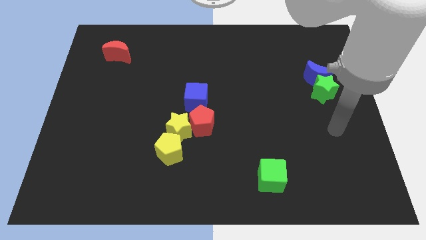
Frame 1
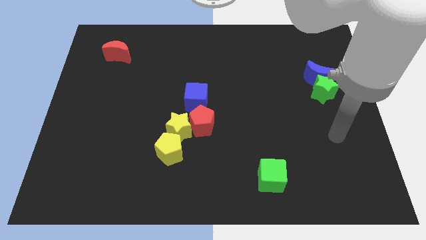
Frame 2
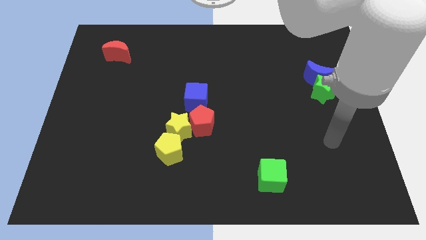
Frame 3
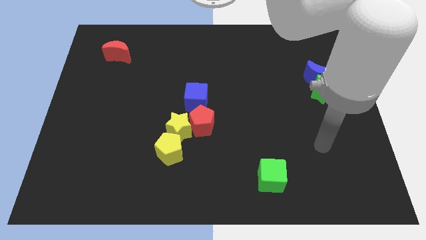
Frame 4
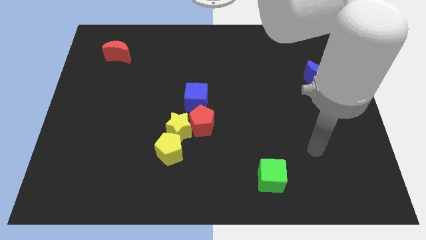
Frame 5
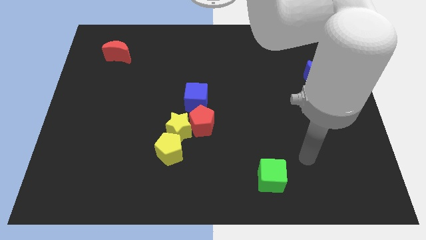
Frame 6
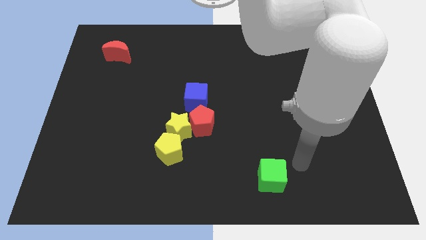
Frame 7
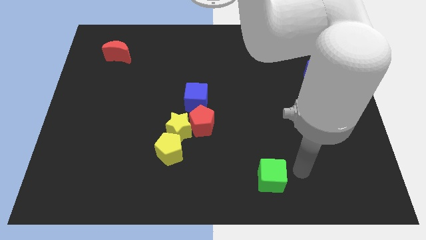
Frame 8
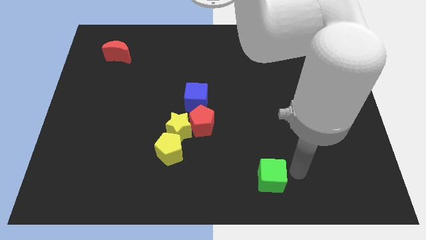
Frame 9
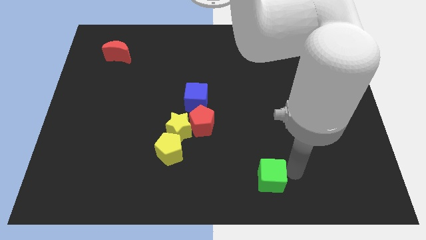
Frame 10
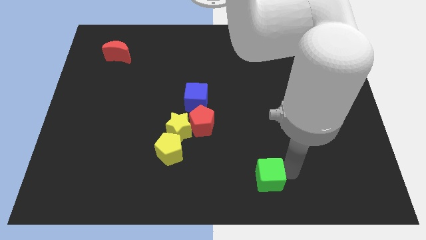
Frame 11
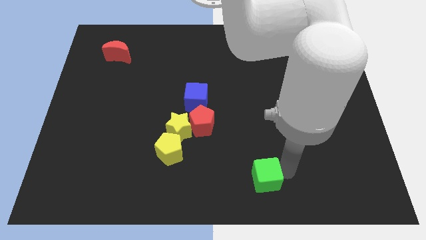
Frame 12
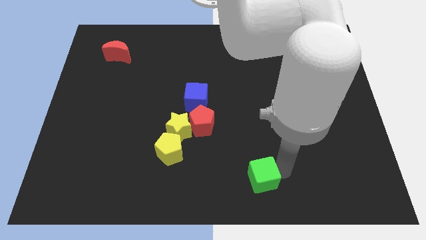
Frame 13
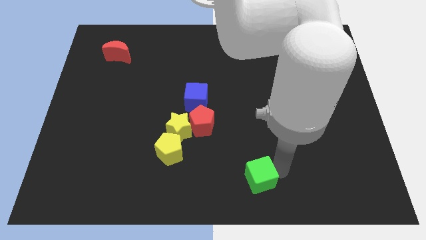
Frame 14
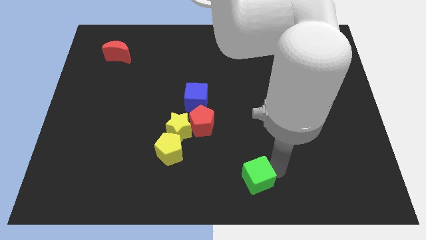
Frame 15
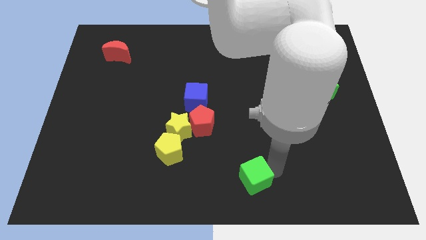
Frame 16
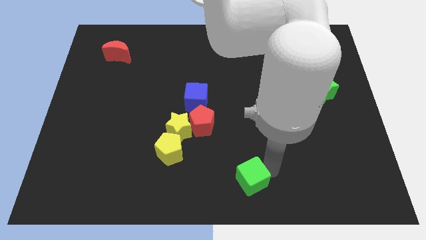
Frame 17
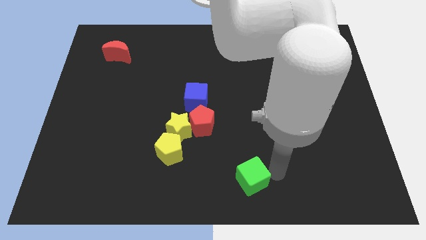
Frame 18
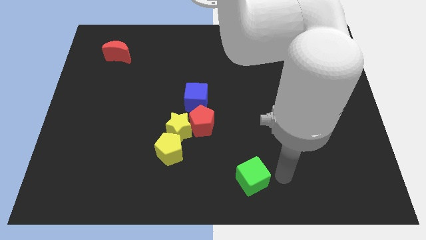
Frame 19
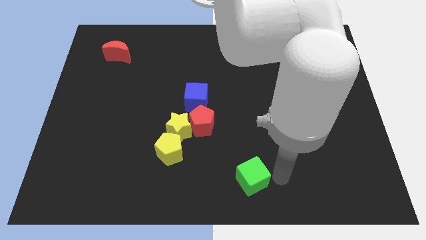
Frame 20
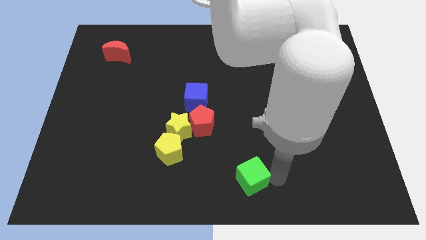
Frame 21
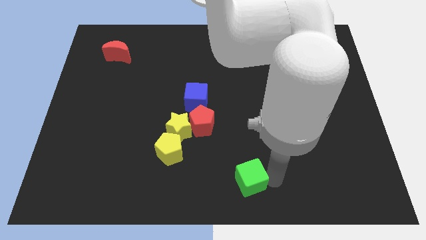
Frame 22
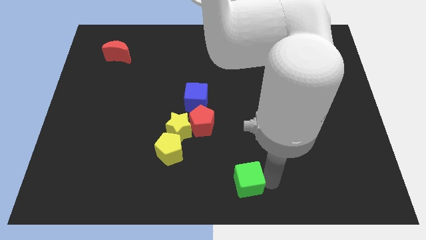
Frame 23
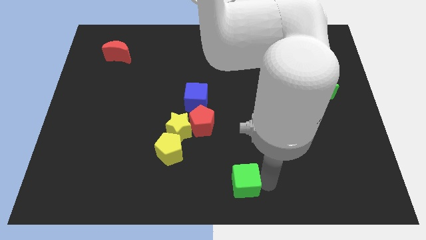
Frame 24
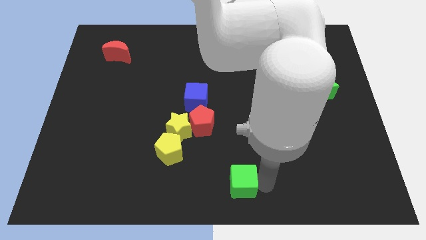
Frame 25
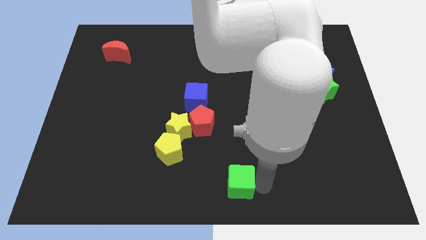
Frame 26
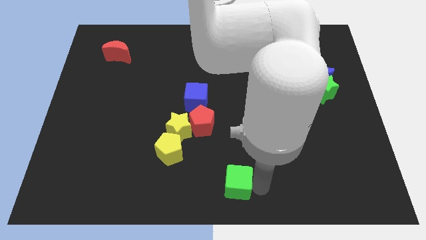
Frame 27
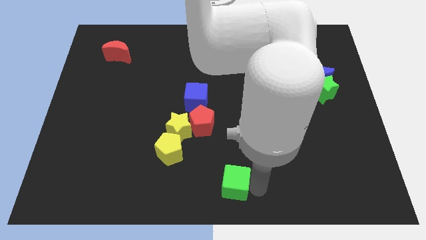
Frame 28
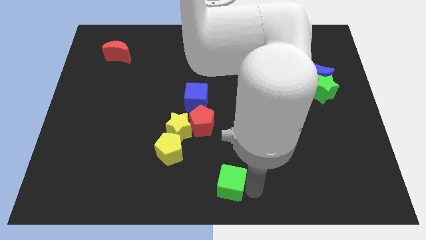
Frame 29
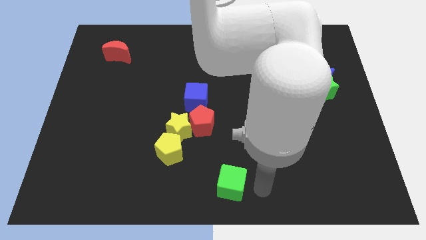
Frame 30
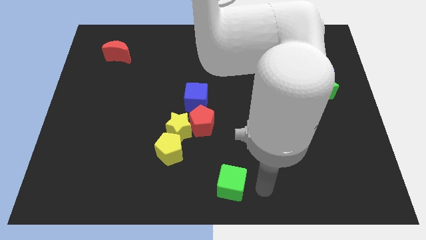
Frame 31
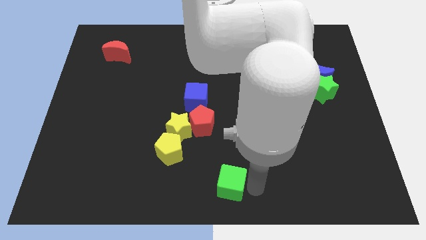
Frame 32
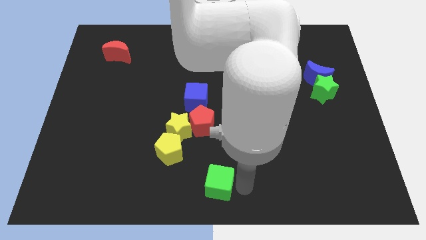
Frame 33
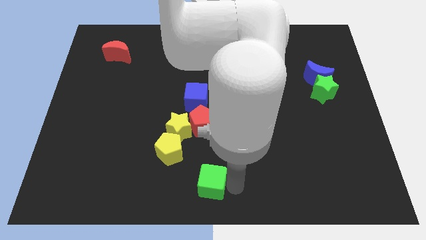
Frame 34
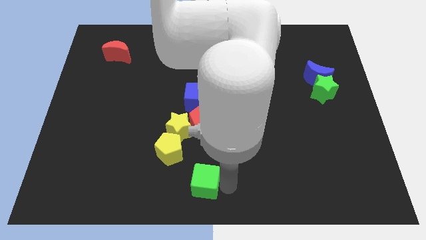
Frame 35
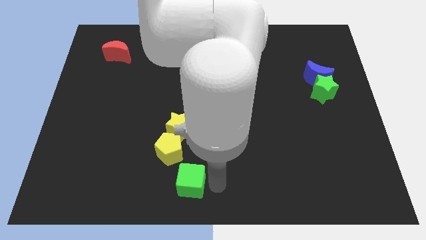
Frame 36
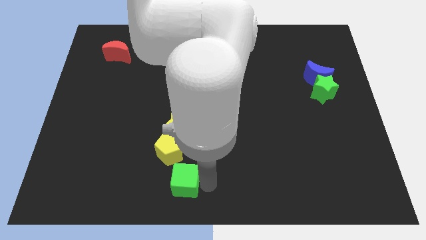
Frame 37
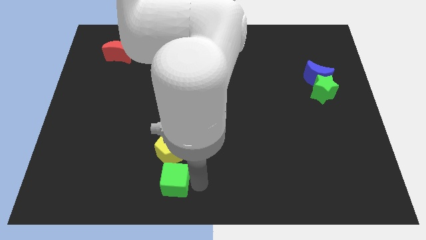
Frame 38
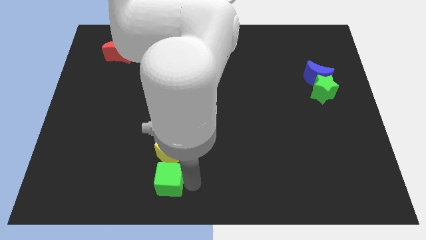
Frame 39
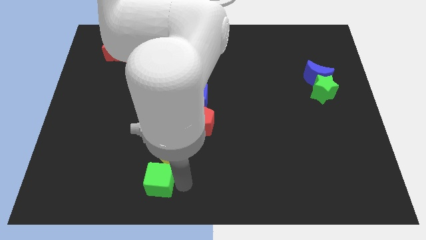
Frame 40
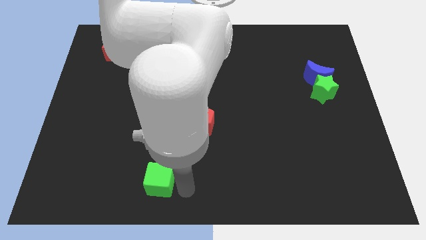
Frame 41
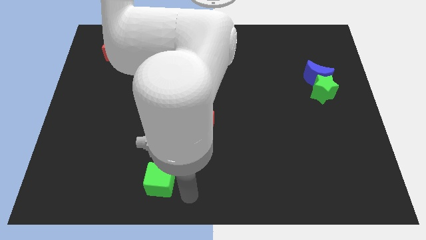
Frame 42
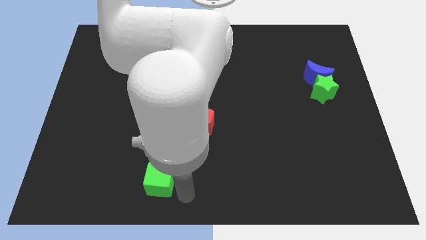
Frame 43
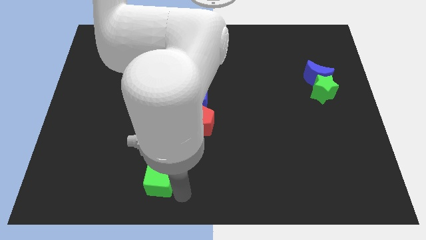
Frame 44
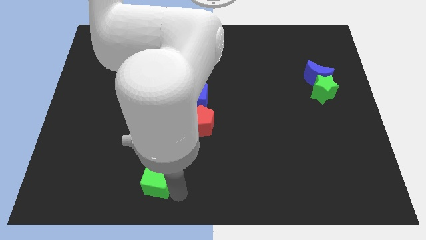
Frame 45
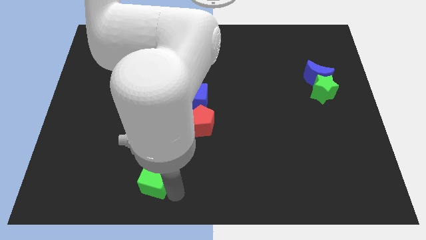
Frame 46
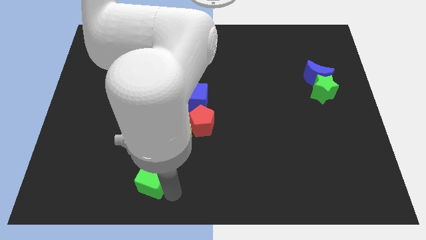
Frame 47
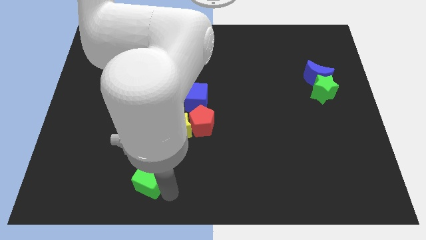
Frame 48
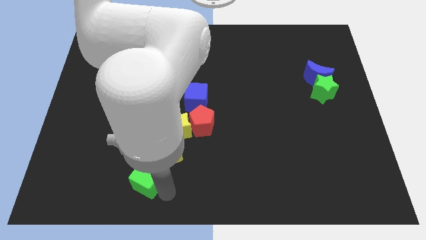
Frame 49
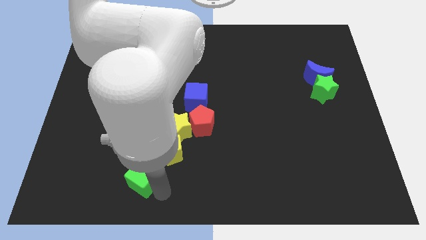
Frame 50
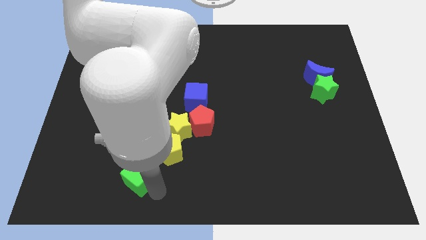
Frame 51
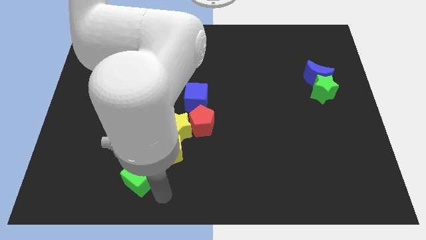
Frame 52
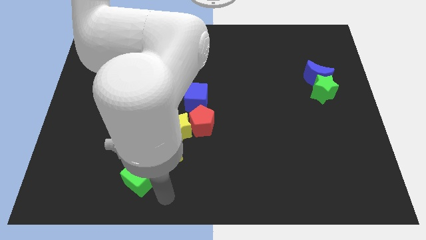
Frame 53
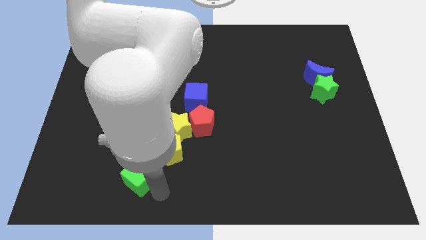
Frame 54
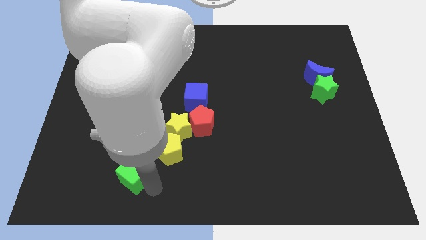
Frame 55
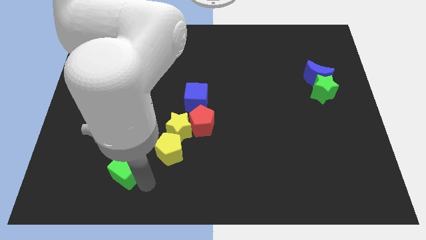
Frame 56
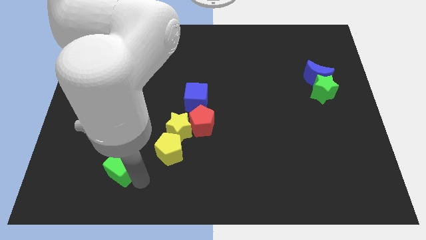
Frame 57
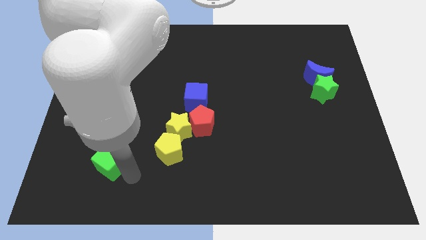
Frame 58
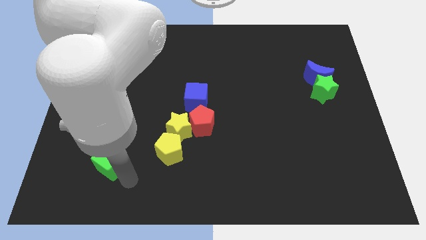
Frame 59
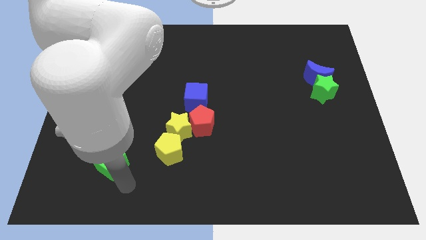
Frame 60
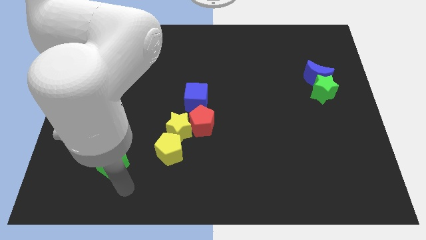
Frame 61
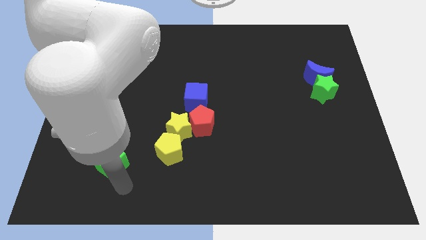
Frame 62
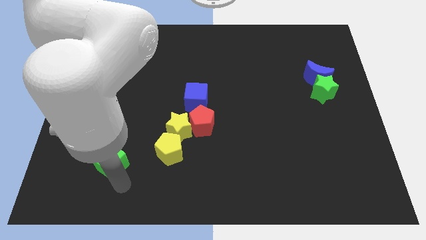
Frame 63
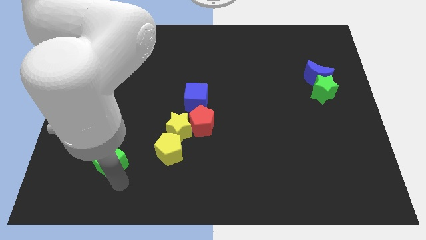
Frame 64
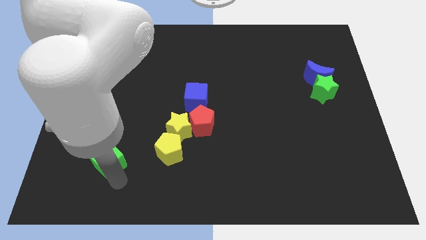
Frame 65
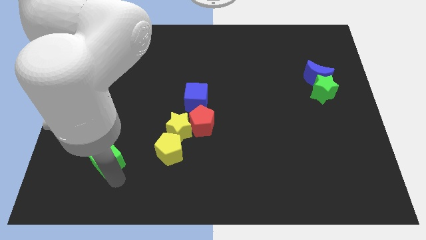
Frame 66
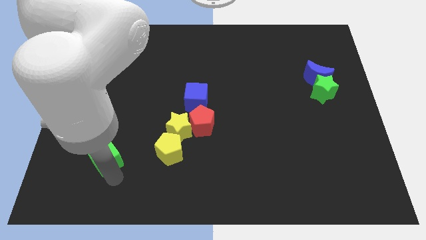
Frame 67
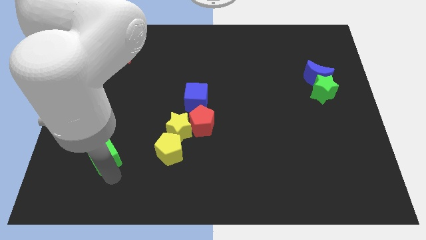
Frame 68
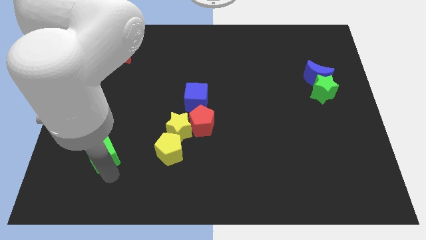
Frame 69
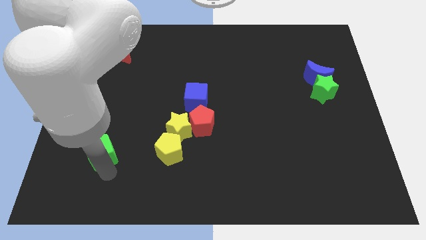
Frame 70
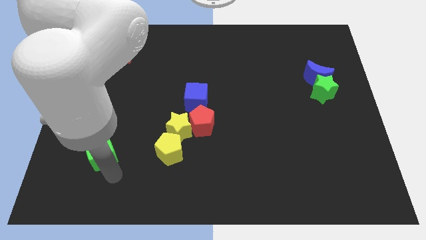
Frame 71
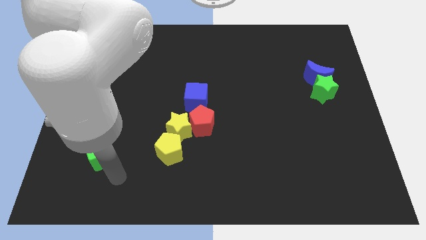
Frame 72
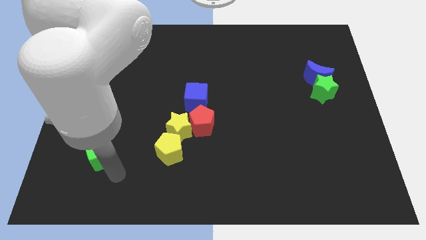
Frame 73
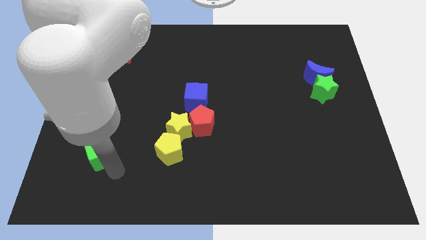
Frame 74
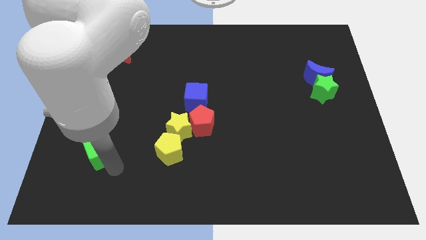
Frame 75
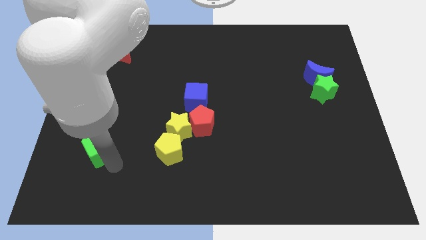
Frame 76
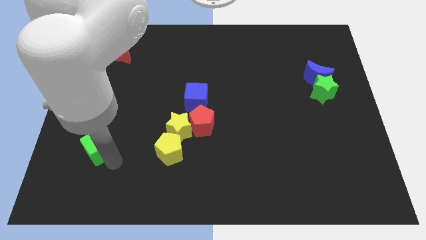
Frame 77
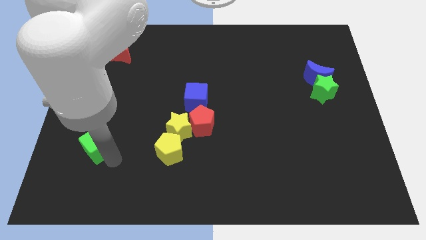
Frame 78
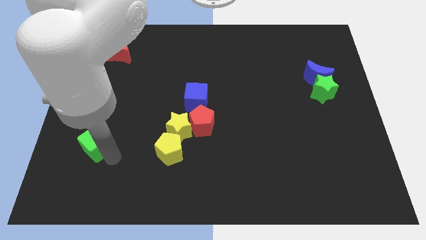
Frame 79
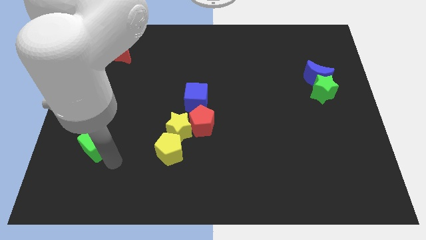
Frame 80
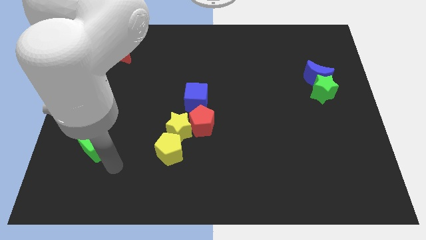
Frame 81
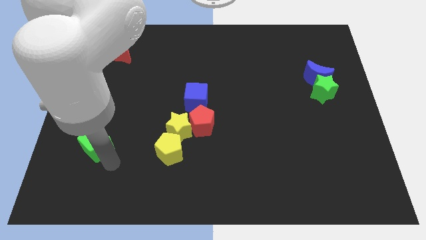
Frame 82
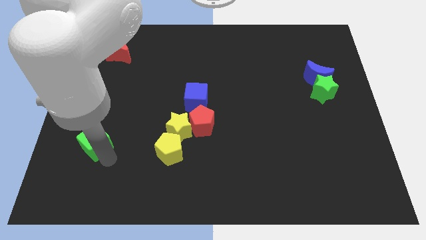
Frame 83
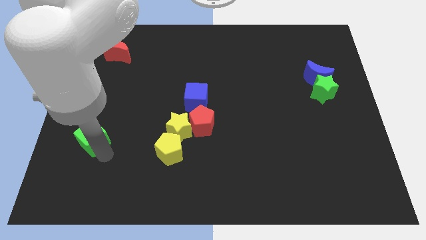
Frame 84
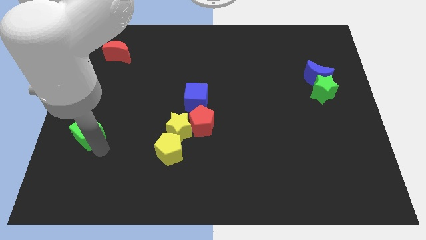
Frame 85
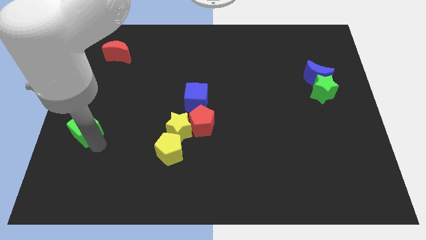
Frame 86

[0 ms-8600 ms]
put the green cube to the center left
